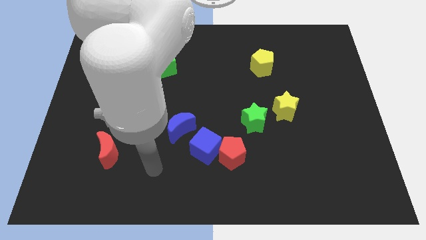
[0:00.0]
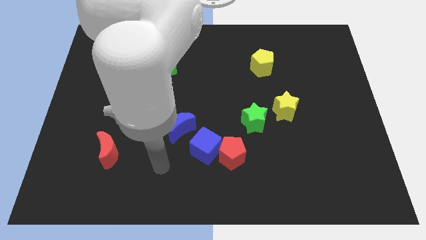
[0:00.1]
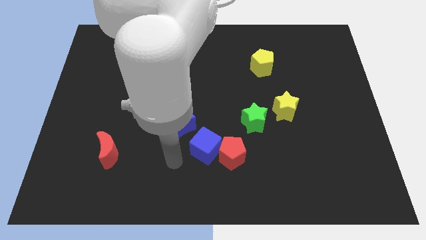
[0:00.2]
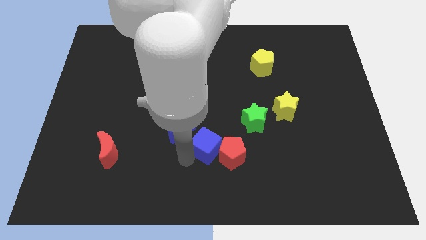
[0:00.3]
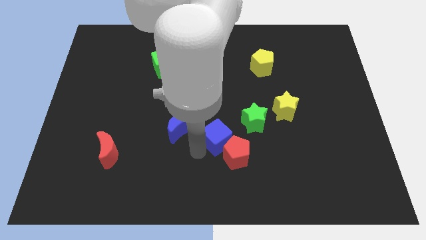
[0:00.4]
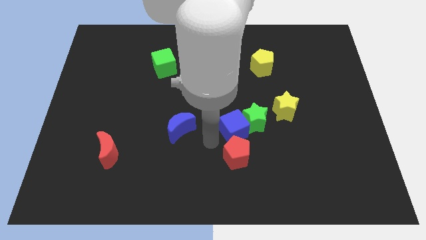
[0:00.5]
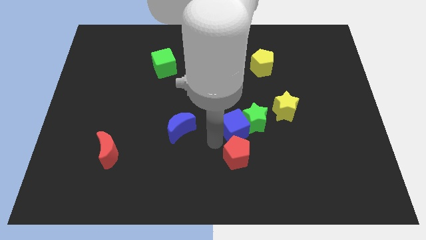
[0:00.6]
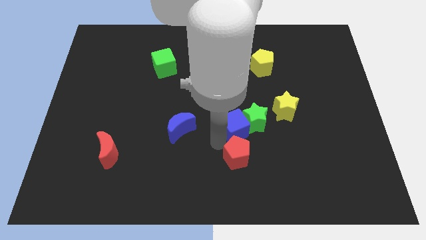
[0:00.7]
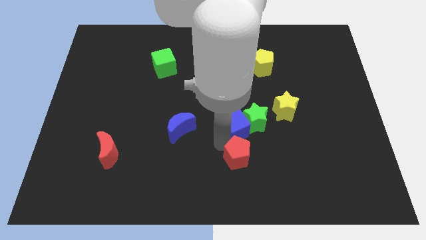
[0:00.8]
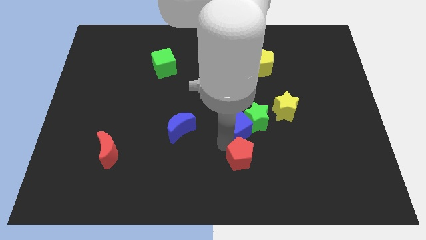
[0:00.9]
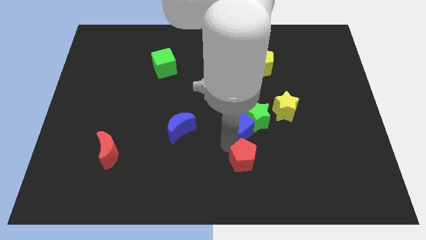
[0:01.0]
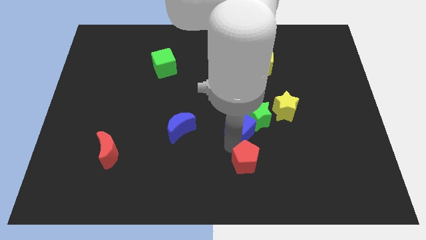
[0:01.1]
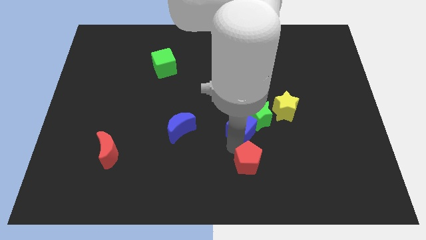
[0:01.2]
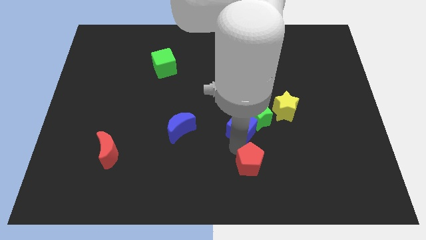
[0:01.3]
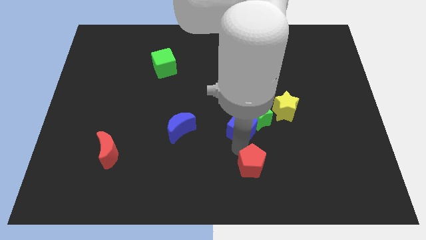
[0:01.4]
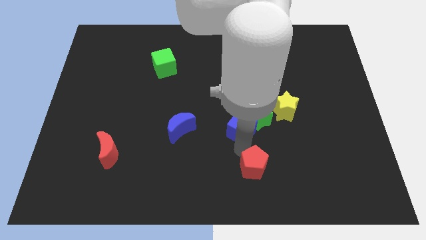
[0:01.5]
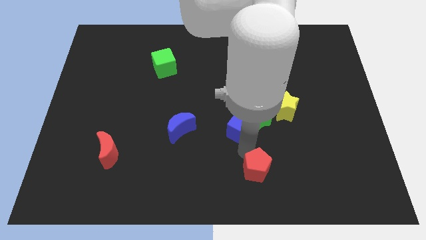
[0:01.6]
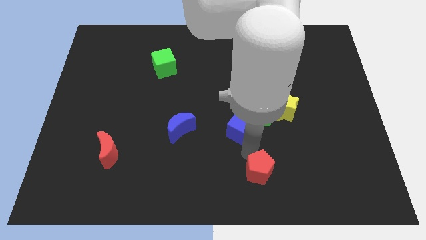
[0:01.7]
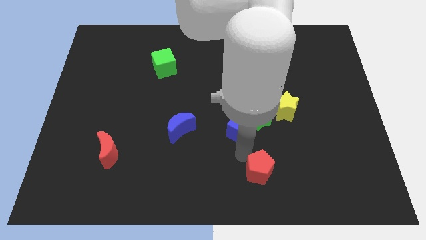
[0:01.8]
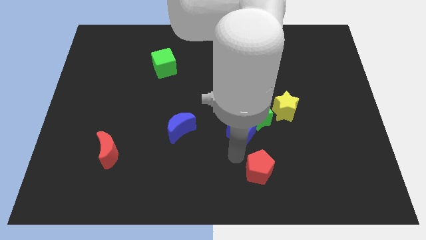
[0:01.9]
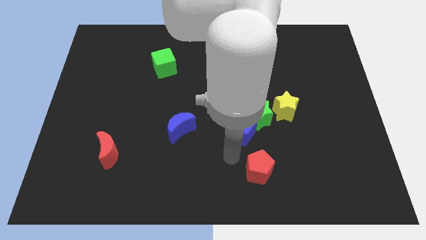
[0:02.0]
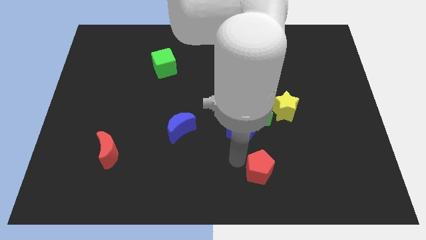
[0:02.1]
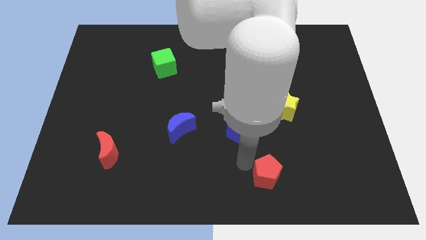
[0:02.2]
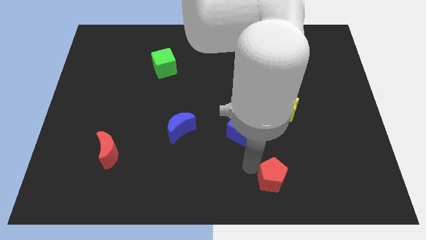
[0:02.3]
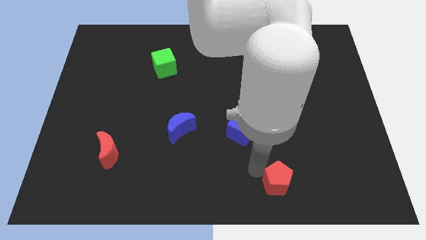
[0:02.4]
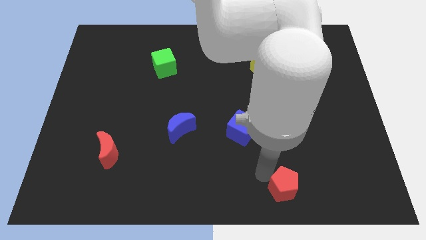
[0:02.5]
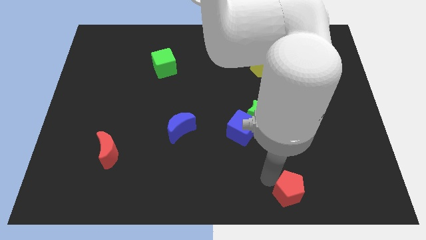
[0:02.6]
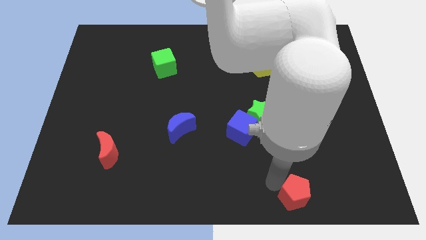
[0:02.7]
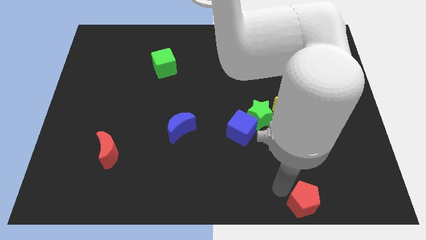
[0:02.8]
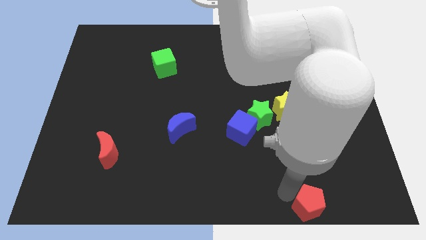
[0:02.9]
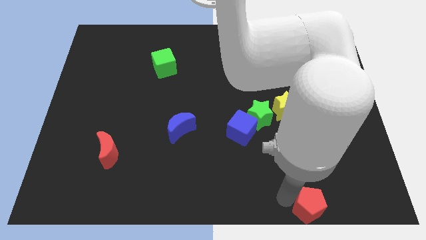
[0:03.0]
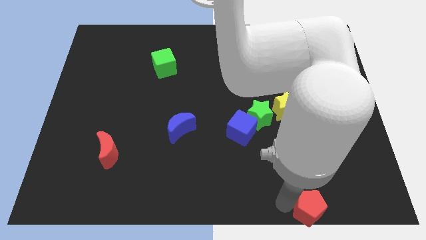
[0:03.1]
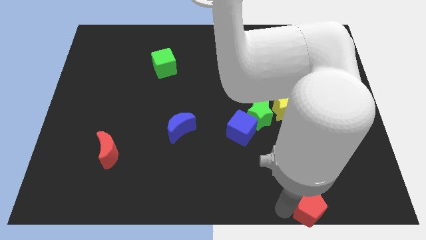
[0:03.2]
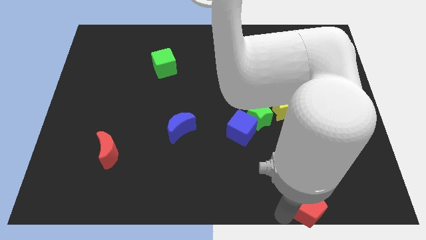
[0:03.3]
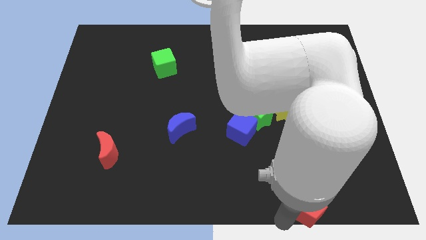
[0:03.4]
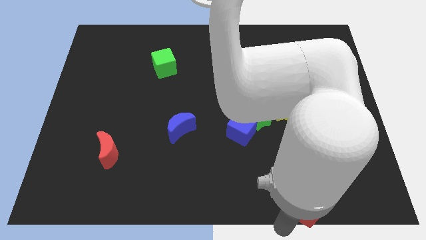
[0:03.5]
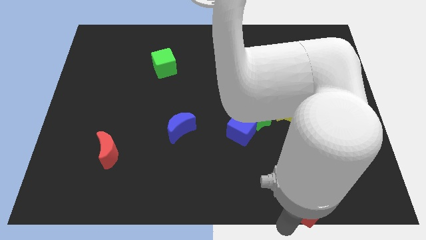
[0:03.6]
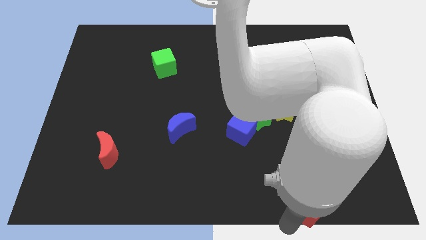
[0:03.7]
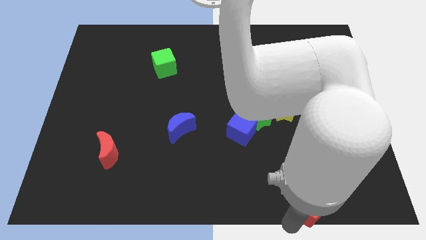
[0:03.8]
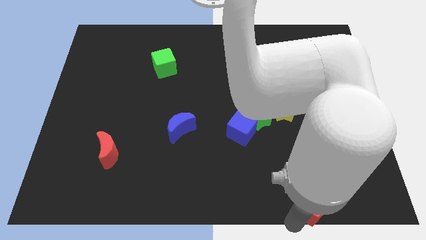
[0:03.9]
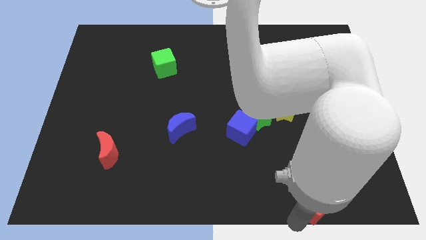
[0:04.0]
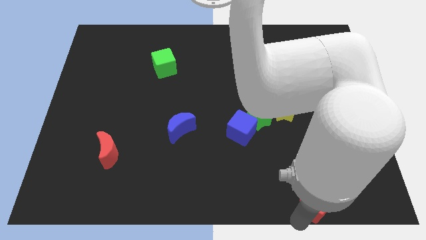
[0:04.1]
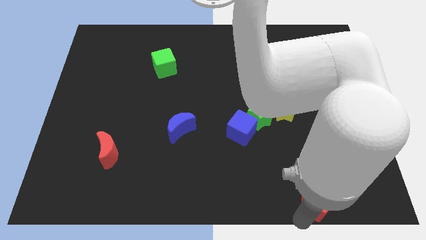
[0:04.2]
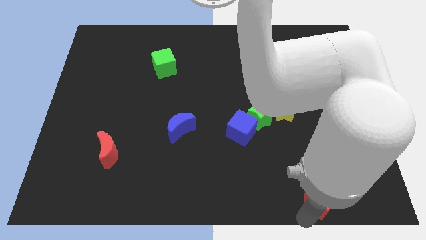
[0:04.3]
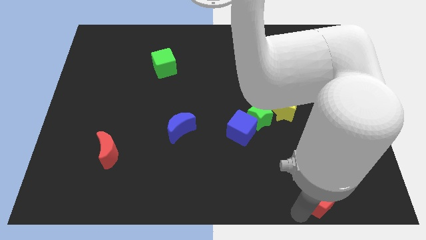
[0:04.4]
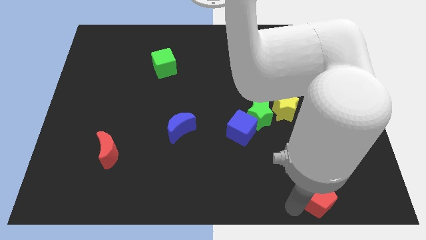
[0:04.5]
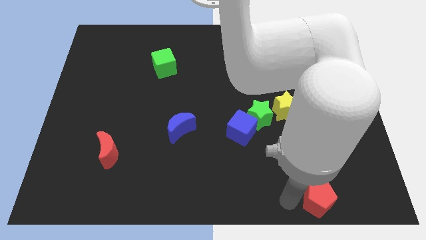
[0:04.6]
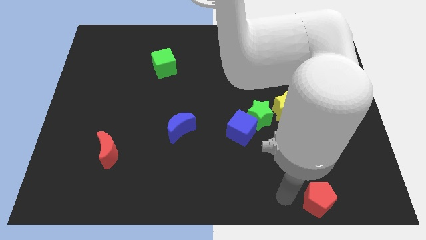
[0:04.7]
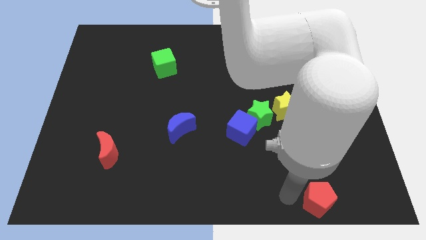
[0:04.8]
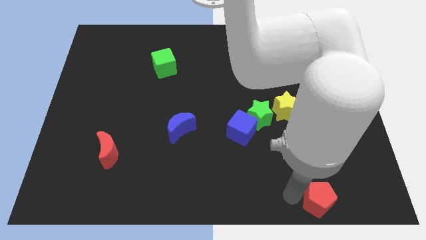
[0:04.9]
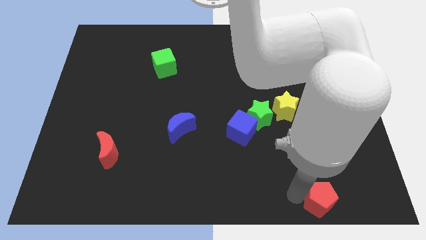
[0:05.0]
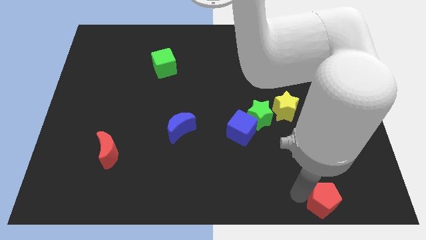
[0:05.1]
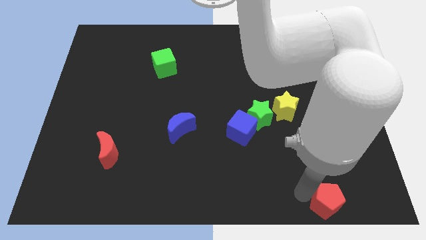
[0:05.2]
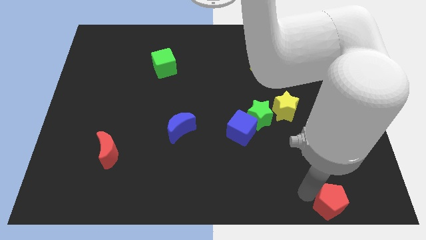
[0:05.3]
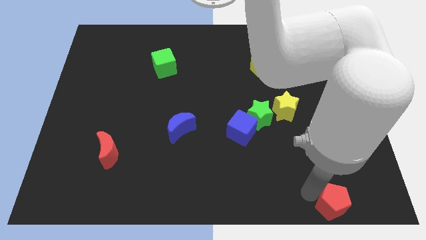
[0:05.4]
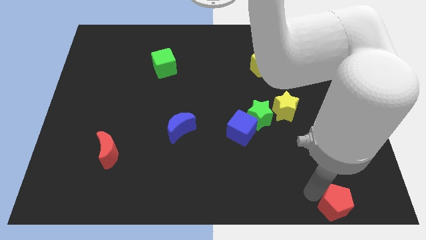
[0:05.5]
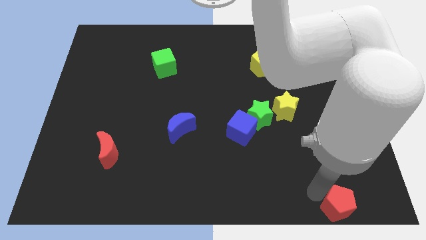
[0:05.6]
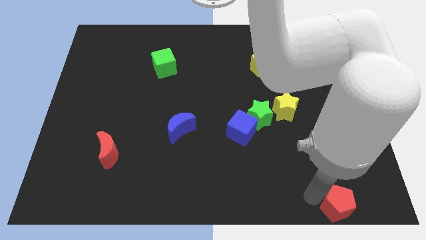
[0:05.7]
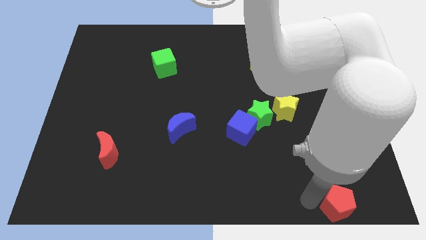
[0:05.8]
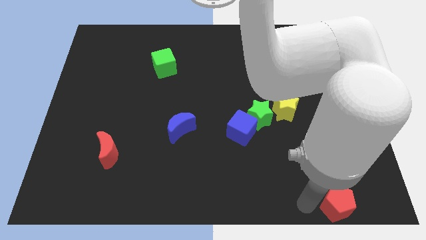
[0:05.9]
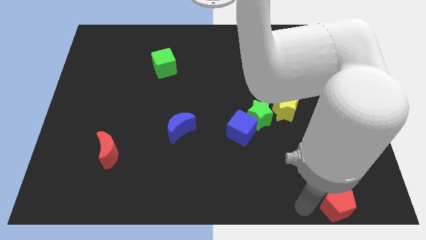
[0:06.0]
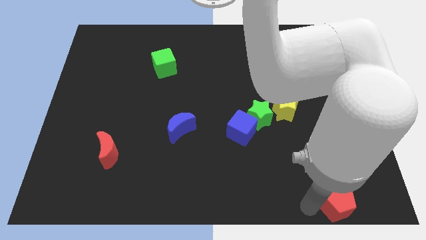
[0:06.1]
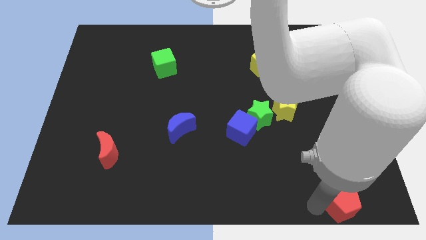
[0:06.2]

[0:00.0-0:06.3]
push the red pentagon to the bottom right of the board

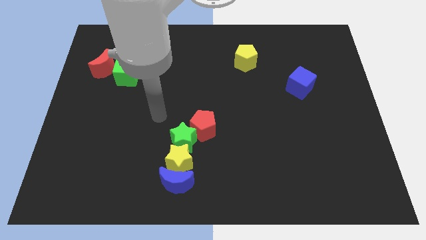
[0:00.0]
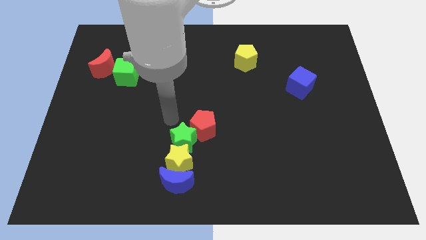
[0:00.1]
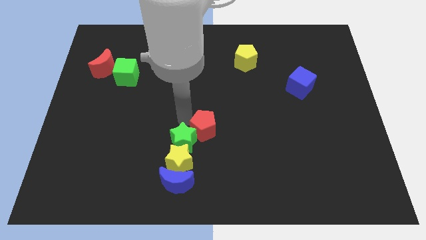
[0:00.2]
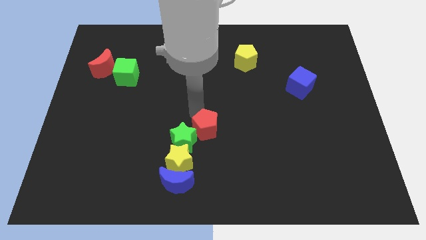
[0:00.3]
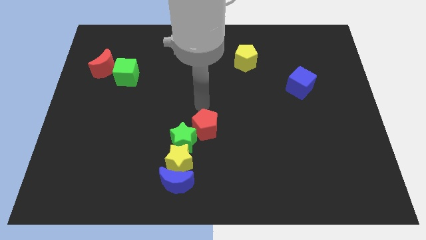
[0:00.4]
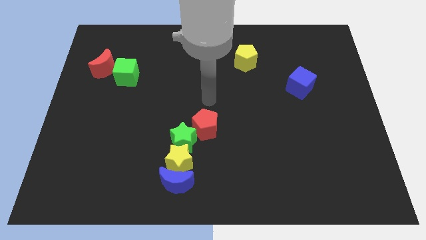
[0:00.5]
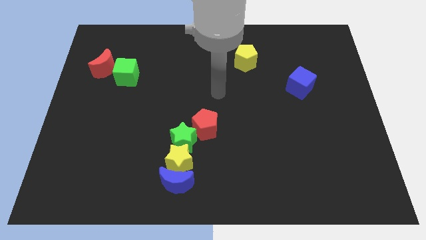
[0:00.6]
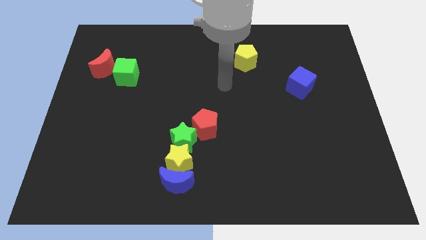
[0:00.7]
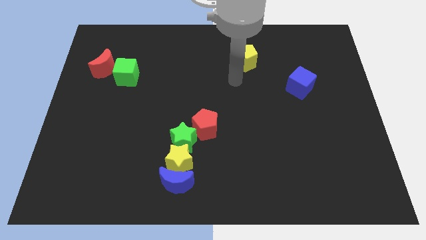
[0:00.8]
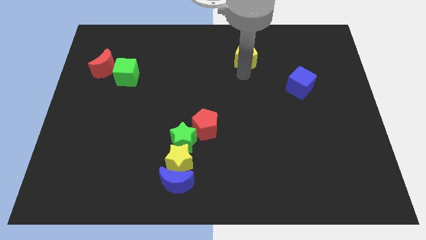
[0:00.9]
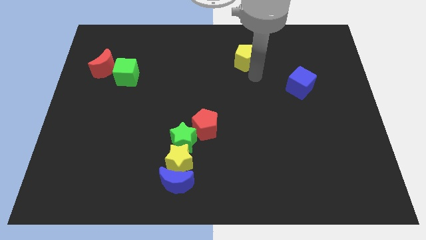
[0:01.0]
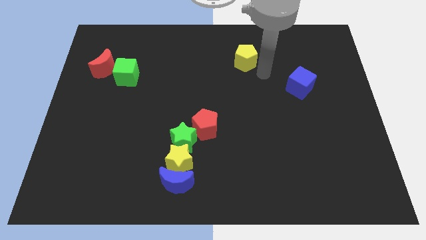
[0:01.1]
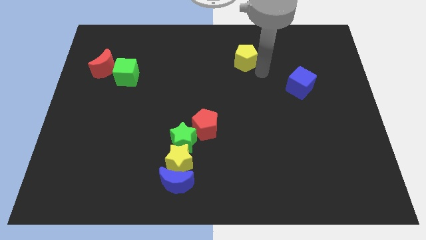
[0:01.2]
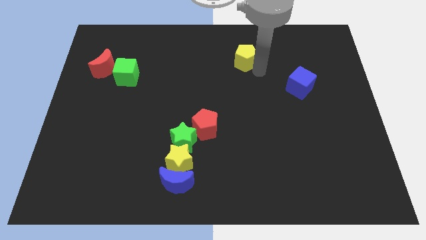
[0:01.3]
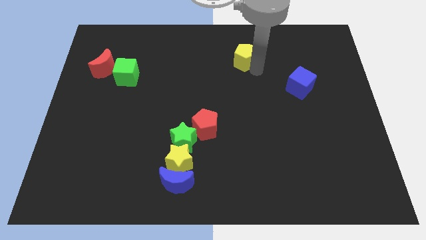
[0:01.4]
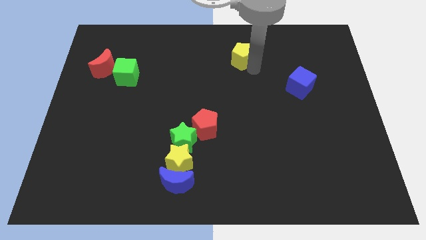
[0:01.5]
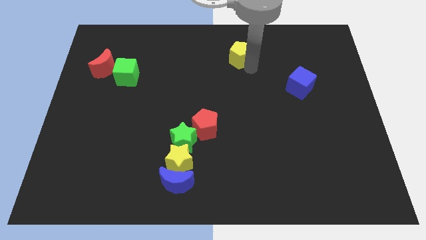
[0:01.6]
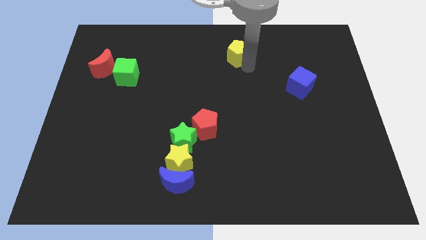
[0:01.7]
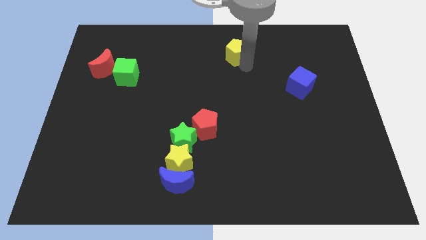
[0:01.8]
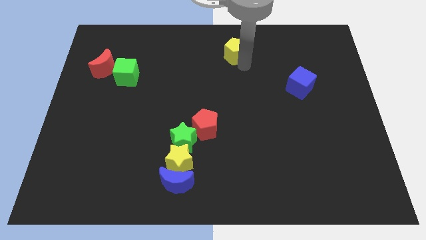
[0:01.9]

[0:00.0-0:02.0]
slide the yellow pentagon to the top side
